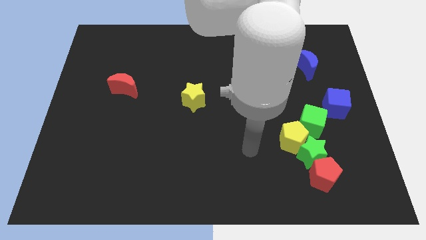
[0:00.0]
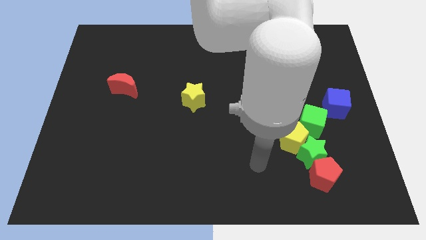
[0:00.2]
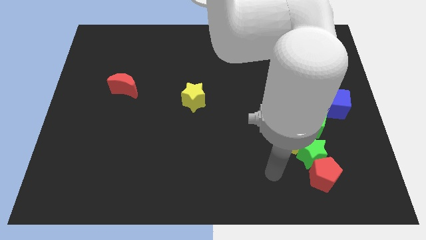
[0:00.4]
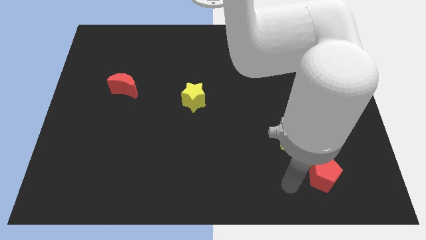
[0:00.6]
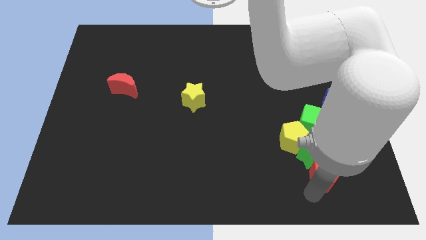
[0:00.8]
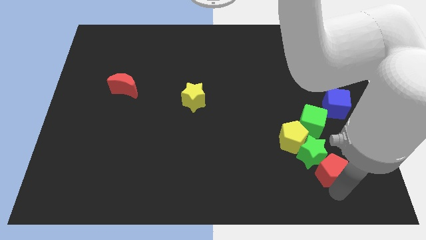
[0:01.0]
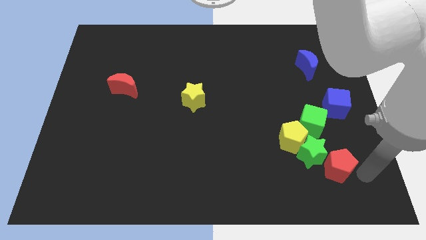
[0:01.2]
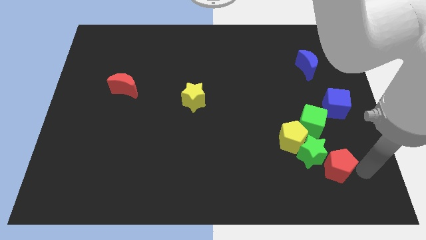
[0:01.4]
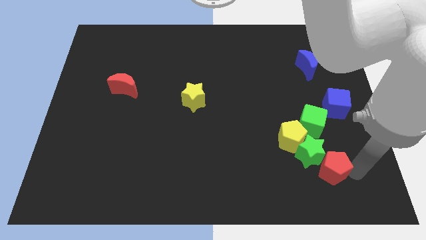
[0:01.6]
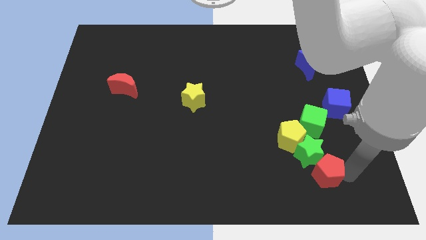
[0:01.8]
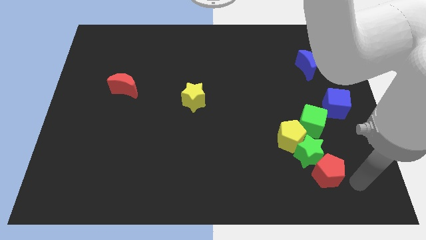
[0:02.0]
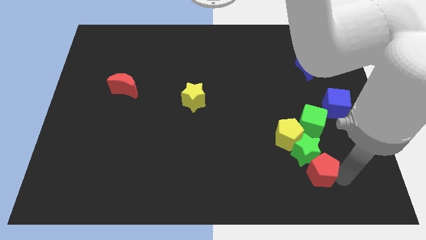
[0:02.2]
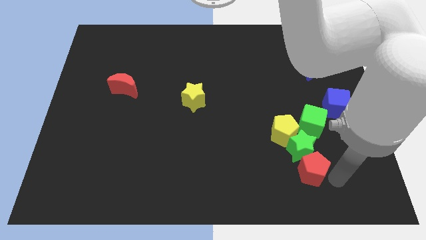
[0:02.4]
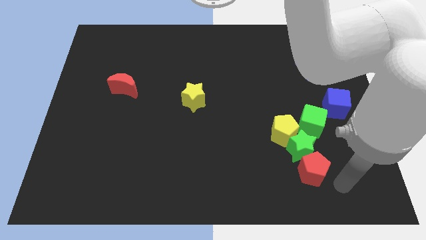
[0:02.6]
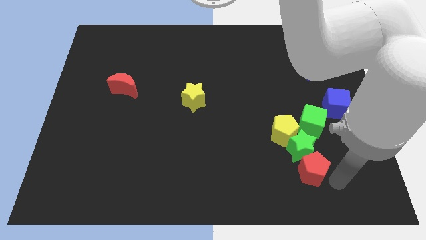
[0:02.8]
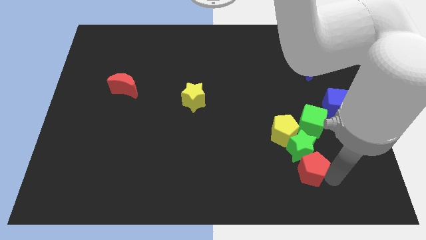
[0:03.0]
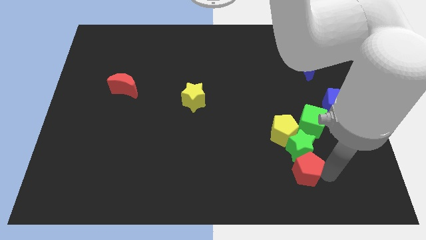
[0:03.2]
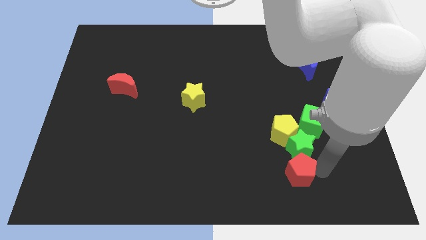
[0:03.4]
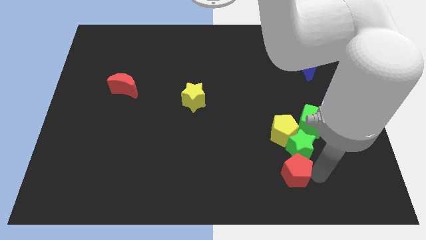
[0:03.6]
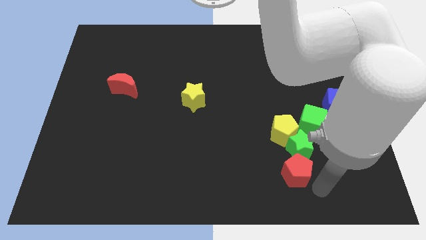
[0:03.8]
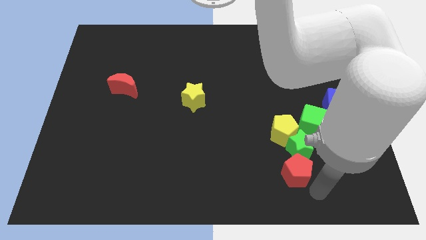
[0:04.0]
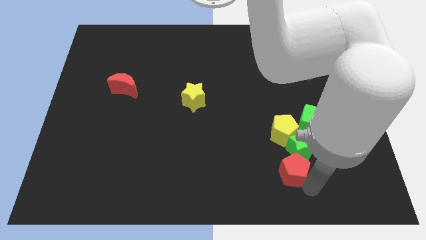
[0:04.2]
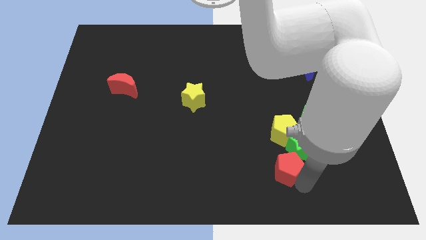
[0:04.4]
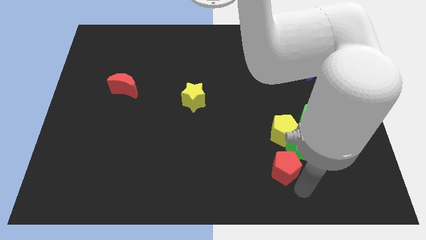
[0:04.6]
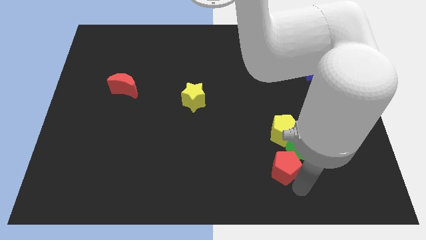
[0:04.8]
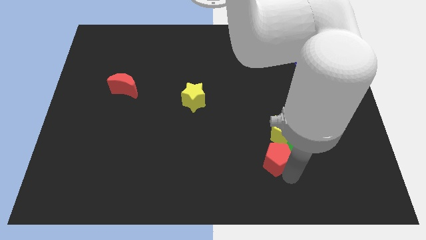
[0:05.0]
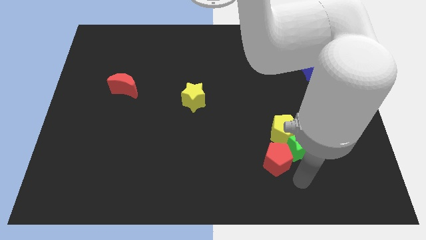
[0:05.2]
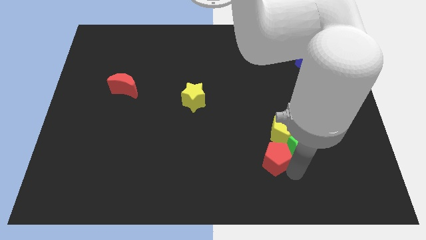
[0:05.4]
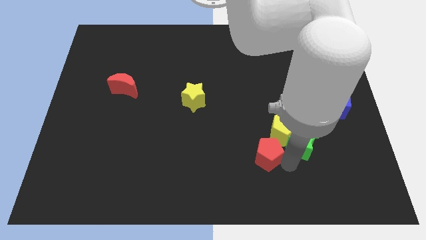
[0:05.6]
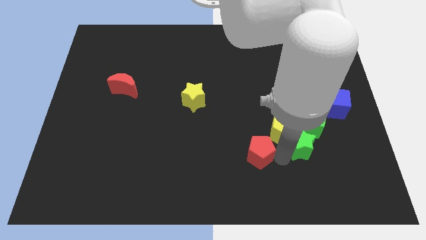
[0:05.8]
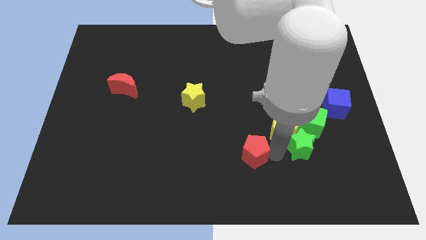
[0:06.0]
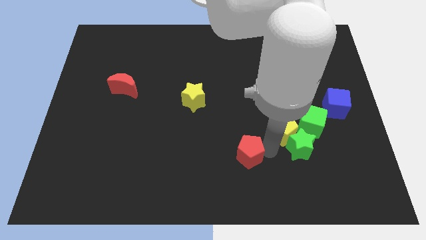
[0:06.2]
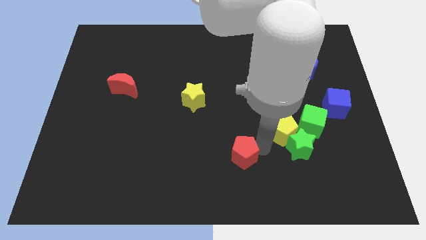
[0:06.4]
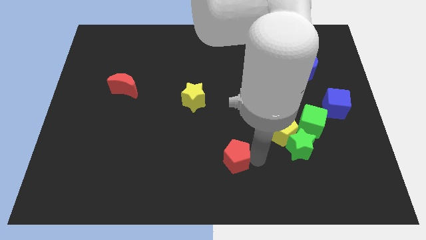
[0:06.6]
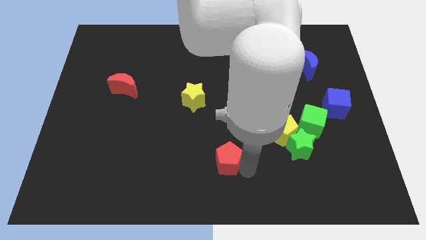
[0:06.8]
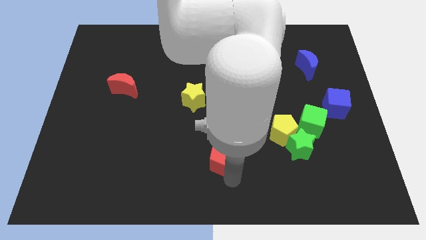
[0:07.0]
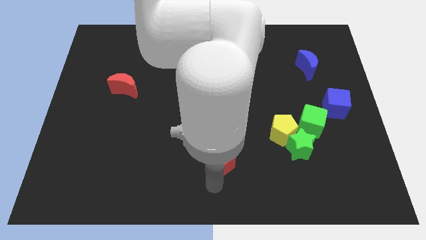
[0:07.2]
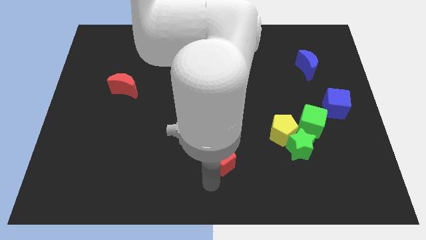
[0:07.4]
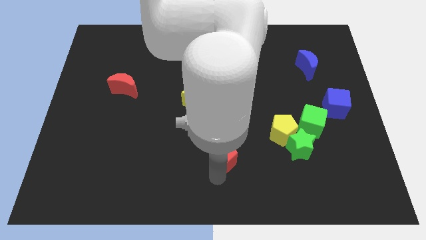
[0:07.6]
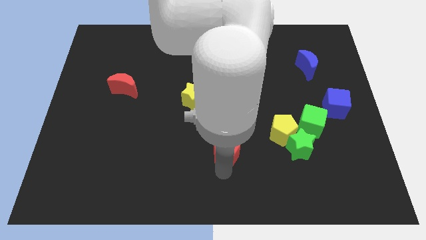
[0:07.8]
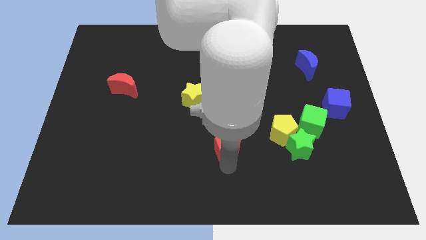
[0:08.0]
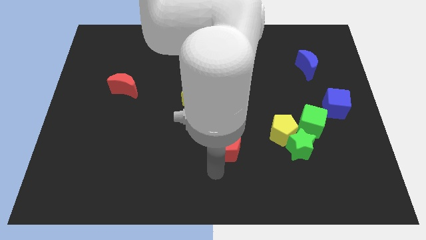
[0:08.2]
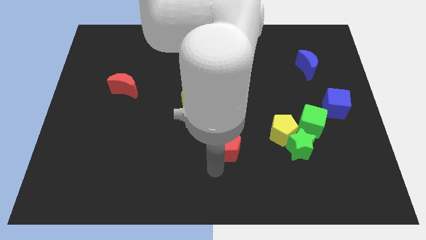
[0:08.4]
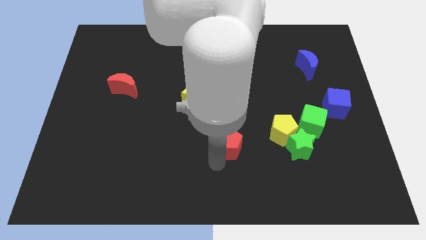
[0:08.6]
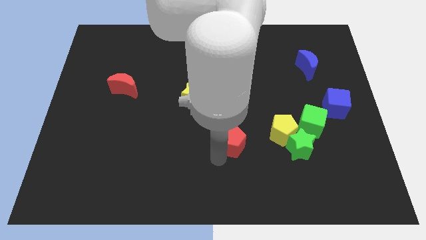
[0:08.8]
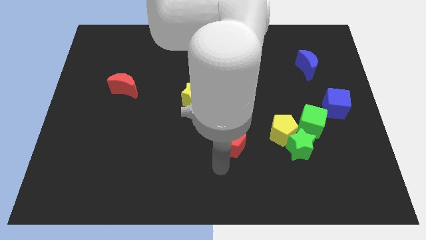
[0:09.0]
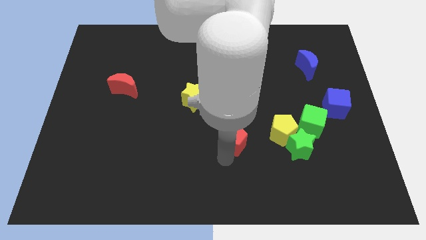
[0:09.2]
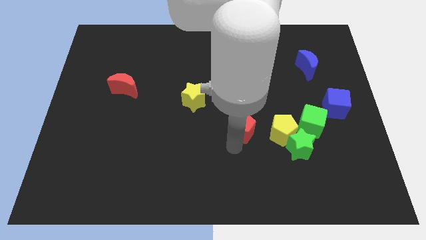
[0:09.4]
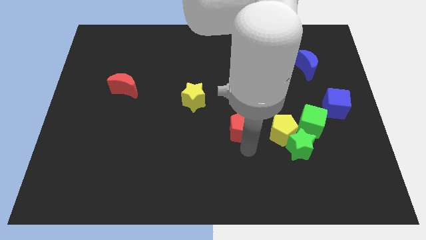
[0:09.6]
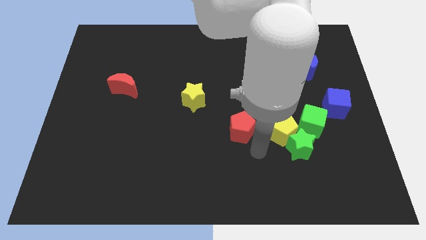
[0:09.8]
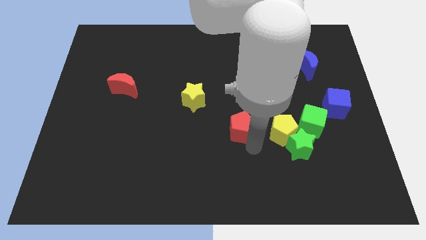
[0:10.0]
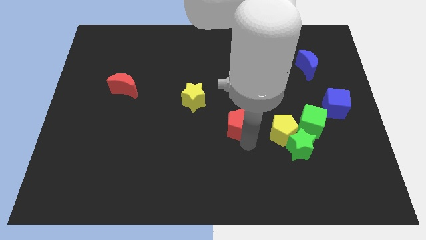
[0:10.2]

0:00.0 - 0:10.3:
move the red pentagon upwards and left diagonally

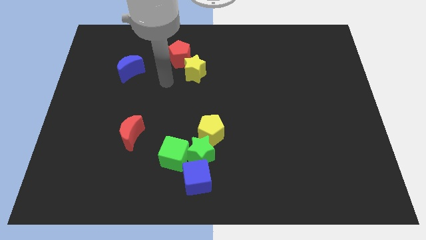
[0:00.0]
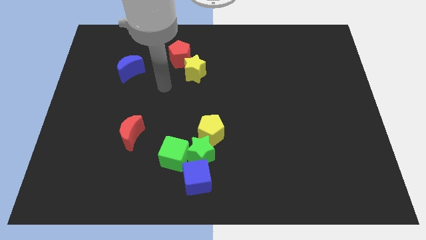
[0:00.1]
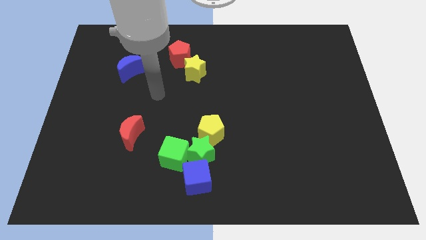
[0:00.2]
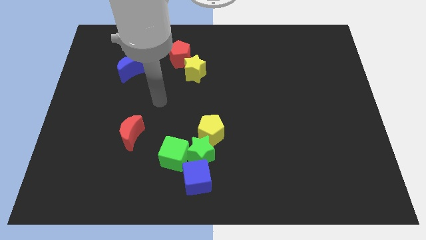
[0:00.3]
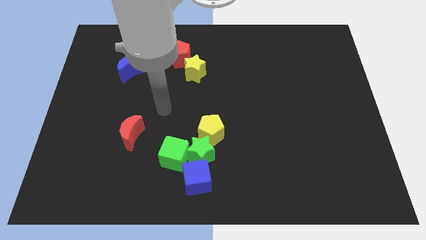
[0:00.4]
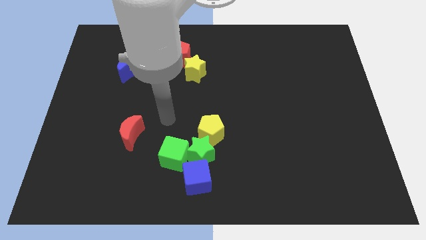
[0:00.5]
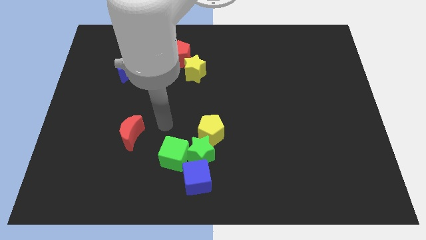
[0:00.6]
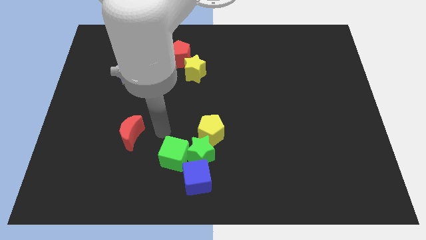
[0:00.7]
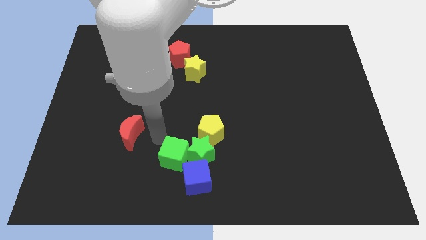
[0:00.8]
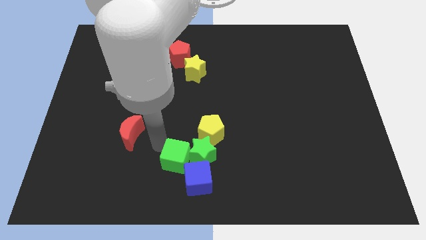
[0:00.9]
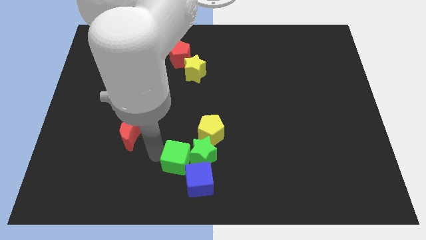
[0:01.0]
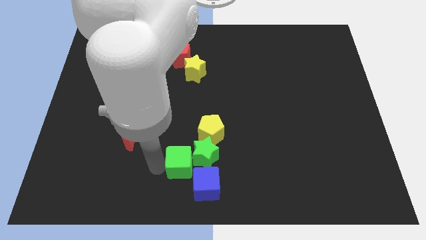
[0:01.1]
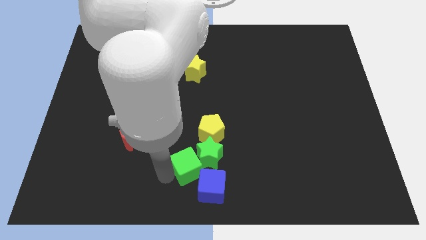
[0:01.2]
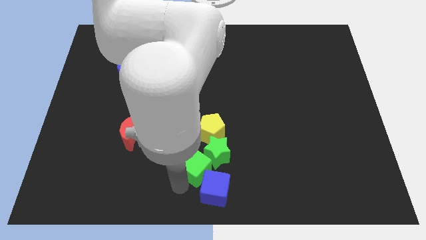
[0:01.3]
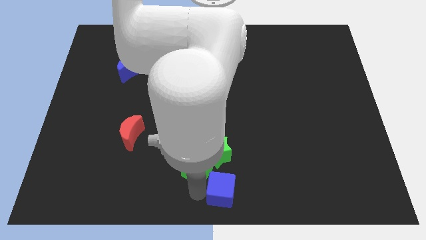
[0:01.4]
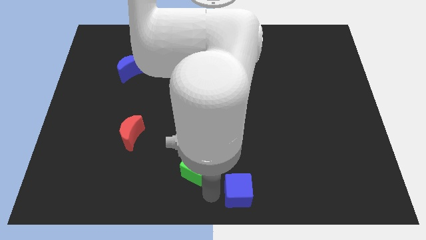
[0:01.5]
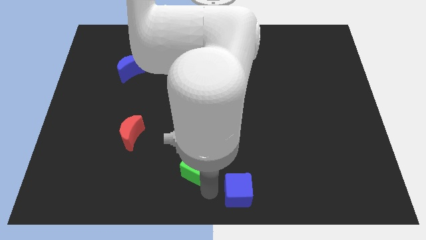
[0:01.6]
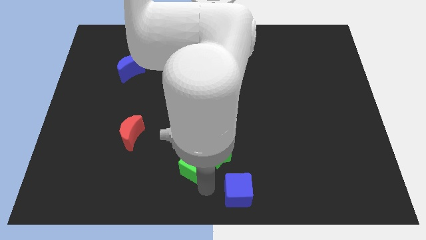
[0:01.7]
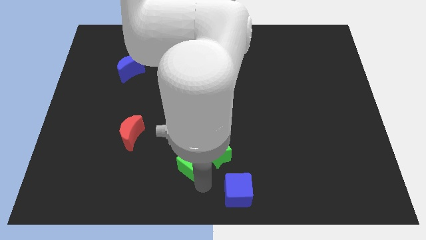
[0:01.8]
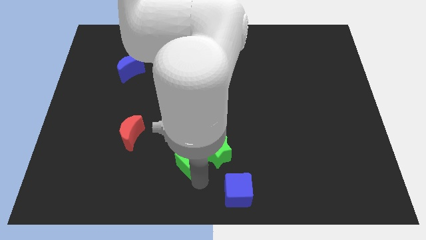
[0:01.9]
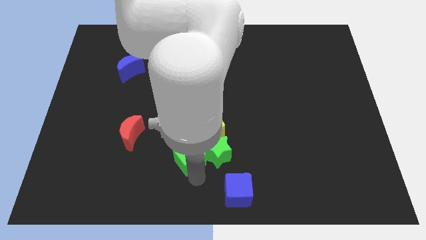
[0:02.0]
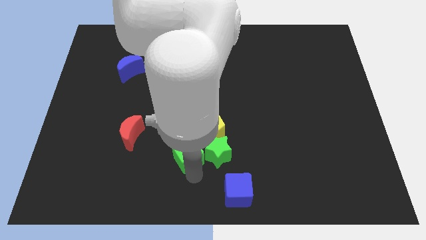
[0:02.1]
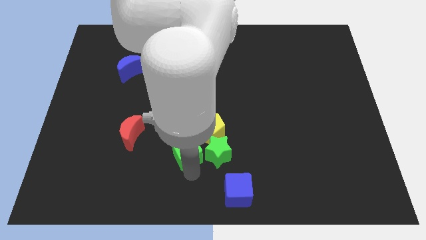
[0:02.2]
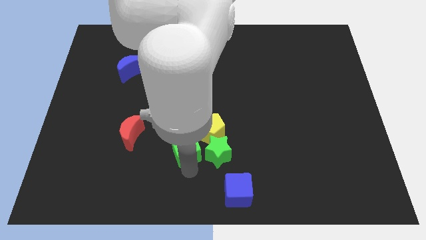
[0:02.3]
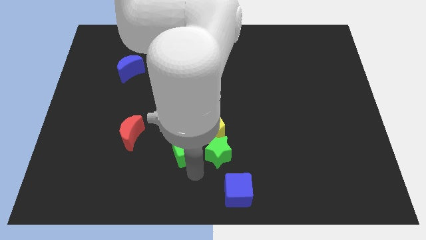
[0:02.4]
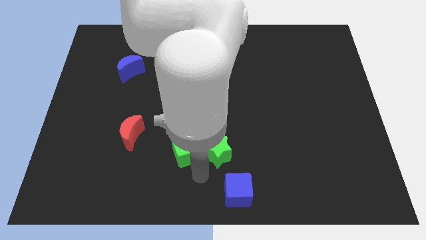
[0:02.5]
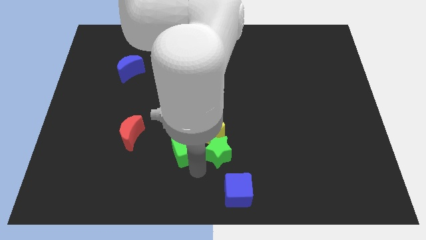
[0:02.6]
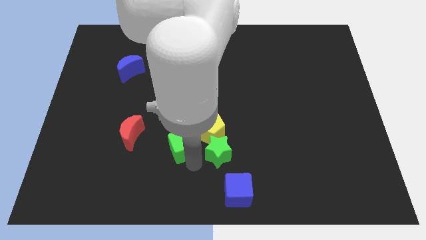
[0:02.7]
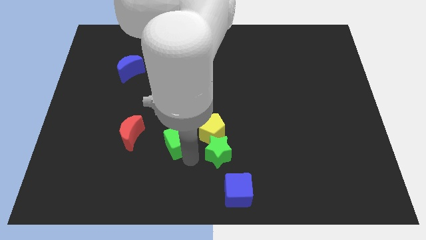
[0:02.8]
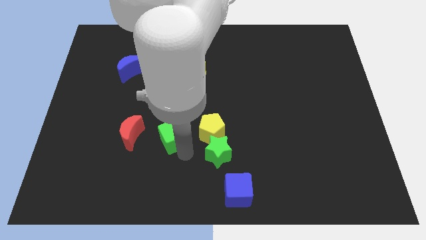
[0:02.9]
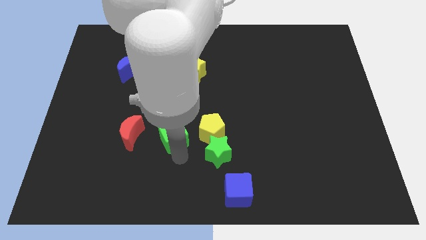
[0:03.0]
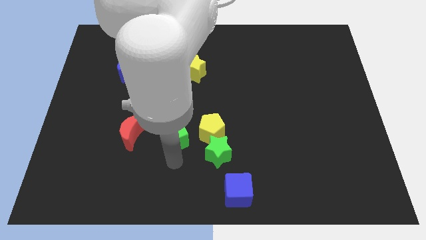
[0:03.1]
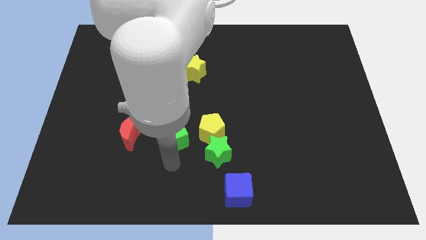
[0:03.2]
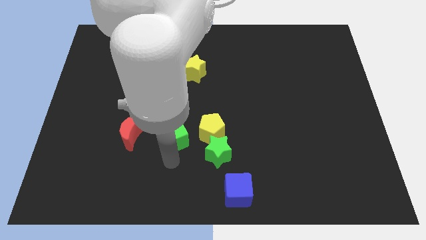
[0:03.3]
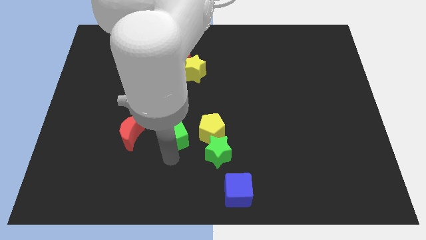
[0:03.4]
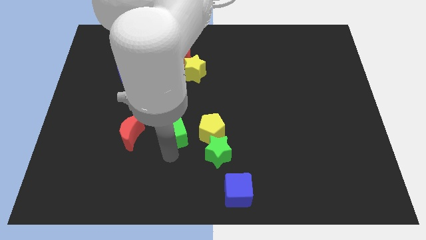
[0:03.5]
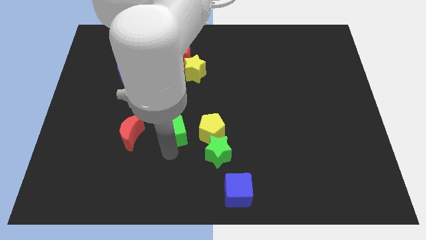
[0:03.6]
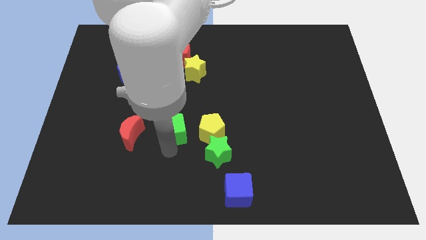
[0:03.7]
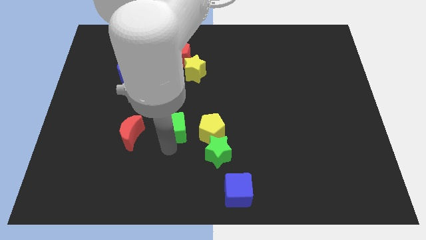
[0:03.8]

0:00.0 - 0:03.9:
slide the green cube slightly upwards
